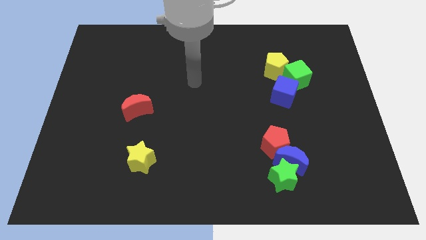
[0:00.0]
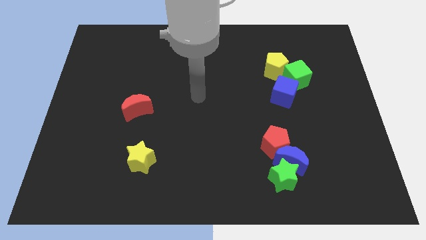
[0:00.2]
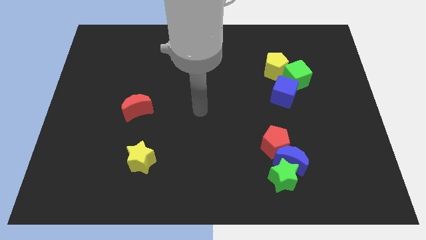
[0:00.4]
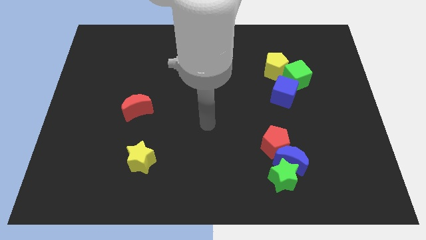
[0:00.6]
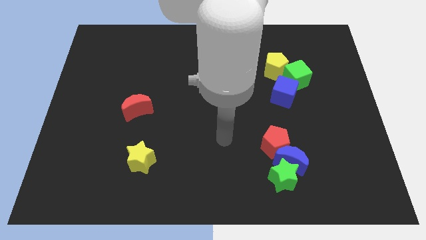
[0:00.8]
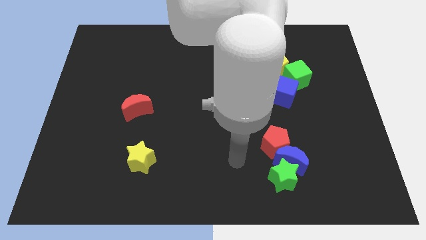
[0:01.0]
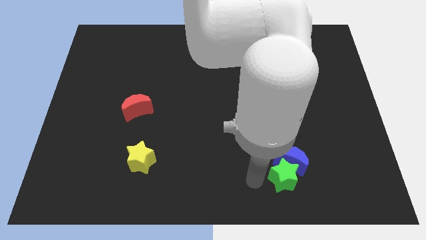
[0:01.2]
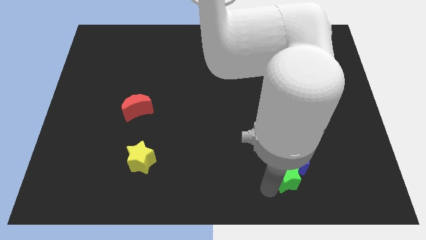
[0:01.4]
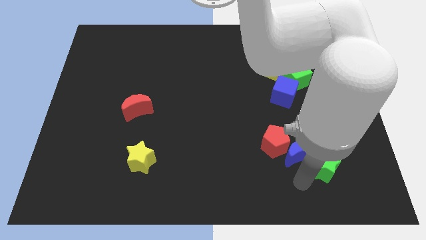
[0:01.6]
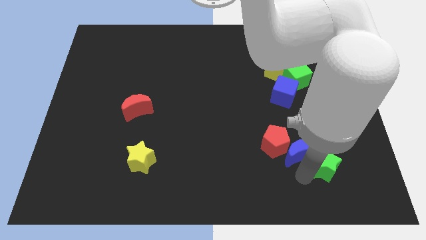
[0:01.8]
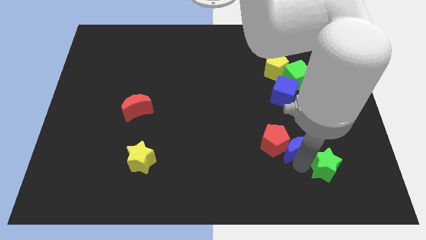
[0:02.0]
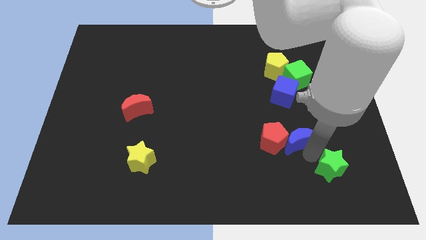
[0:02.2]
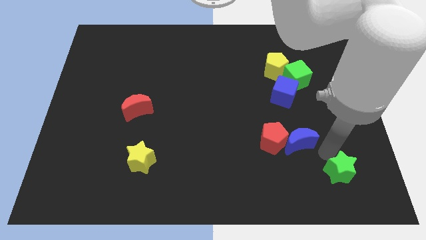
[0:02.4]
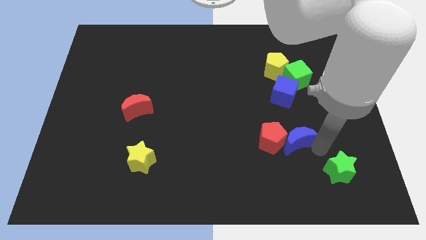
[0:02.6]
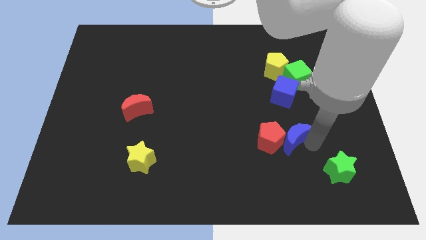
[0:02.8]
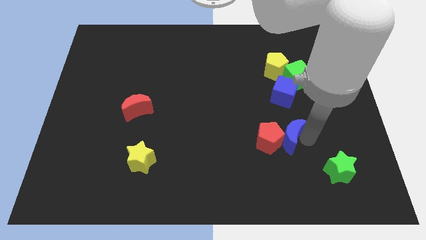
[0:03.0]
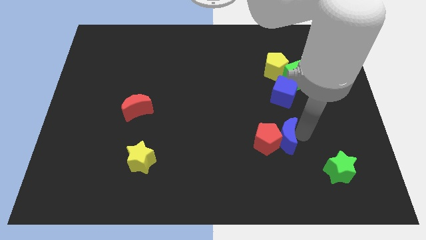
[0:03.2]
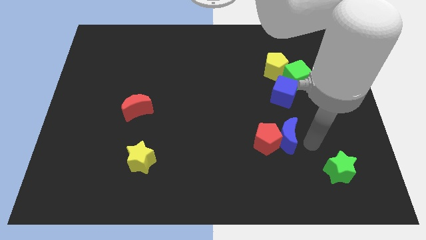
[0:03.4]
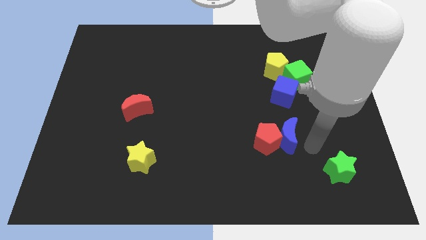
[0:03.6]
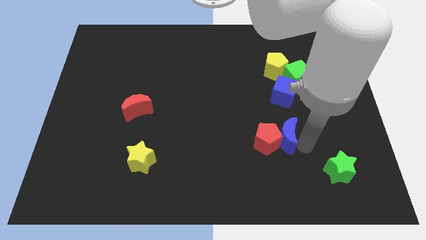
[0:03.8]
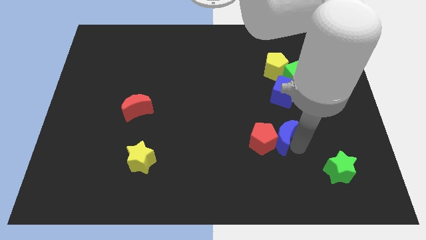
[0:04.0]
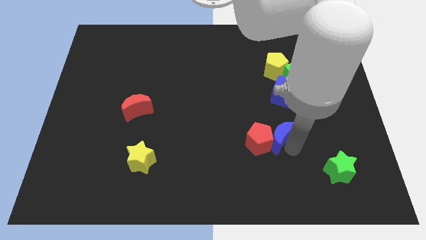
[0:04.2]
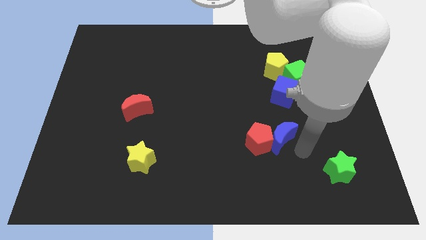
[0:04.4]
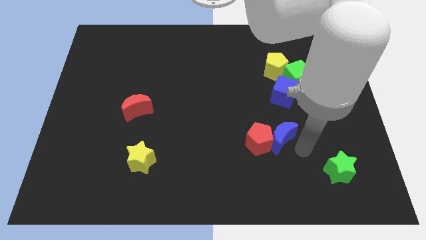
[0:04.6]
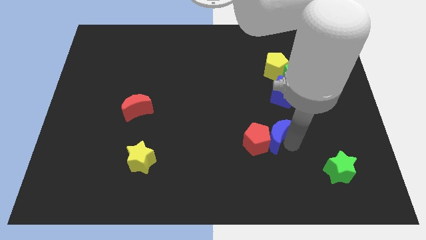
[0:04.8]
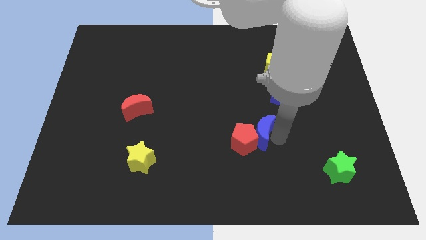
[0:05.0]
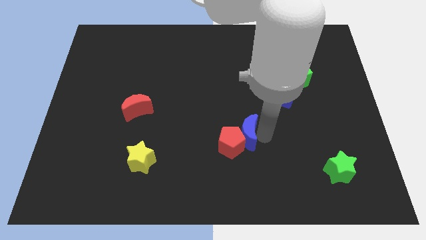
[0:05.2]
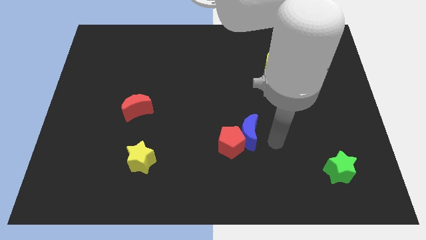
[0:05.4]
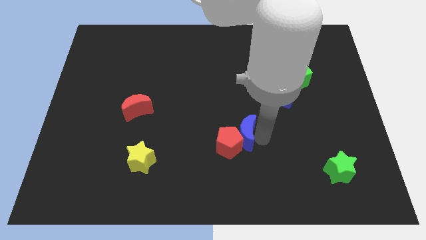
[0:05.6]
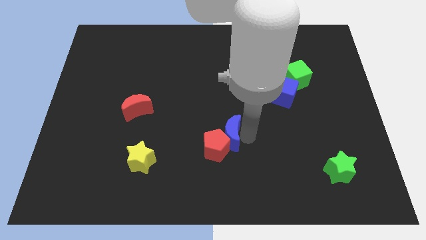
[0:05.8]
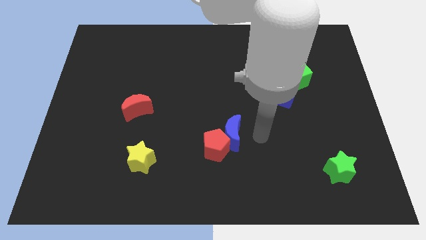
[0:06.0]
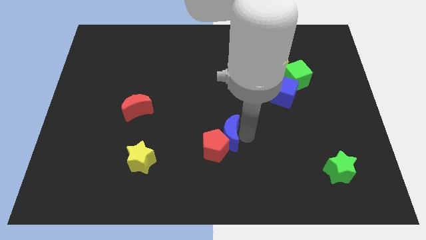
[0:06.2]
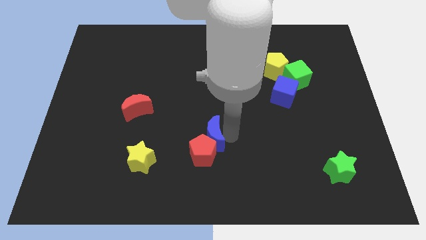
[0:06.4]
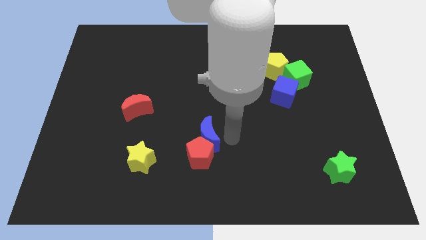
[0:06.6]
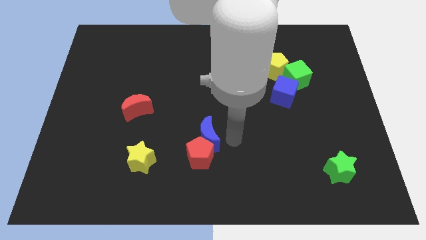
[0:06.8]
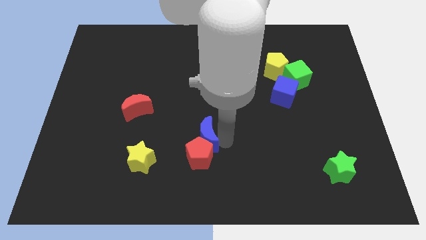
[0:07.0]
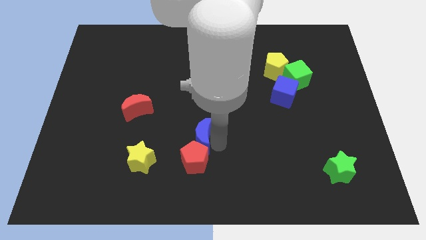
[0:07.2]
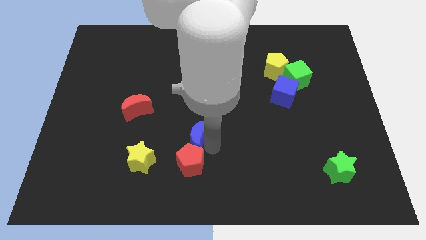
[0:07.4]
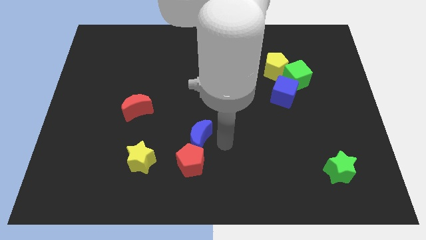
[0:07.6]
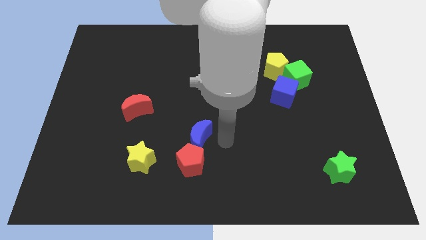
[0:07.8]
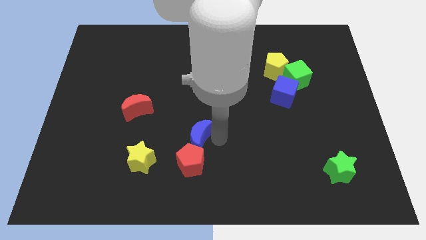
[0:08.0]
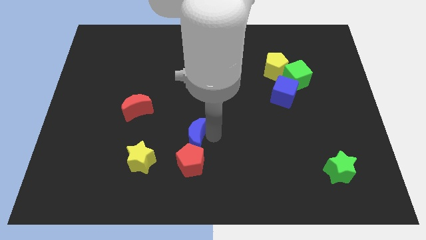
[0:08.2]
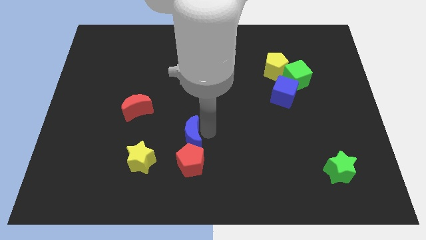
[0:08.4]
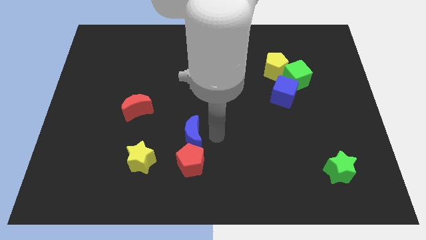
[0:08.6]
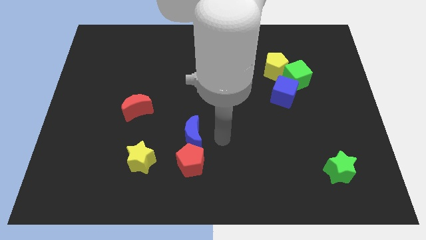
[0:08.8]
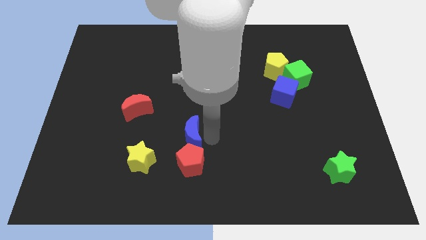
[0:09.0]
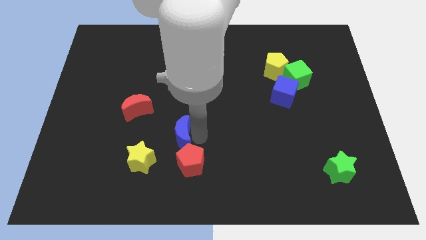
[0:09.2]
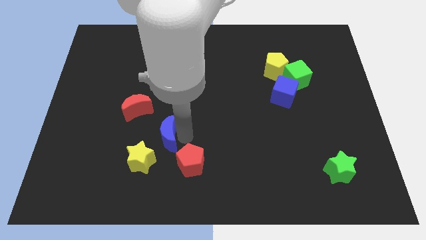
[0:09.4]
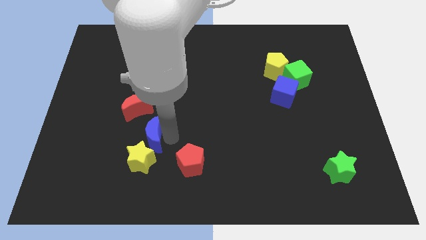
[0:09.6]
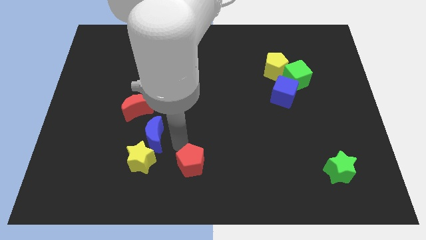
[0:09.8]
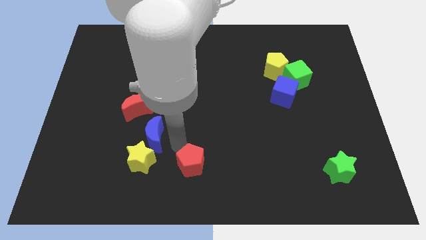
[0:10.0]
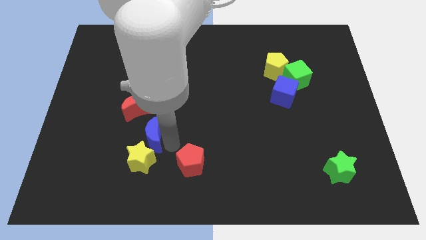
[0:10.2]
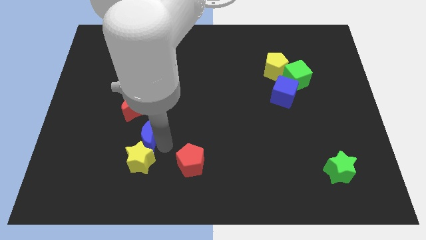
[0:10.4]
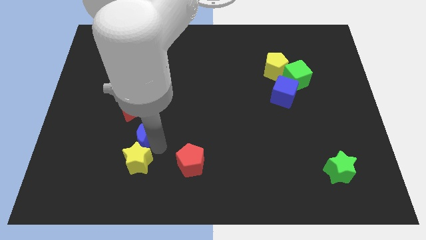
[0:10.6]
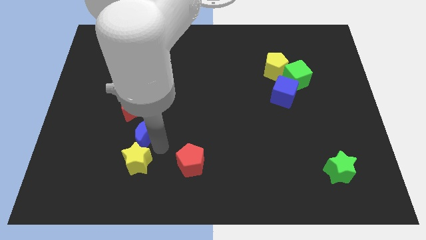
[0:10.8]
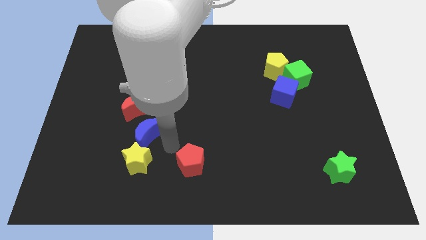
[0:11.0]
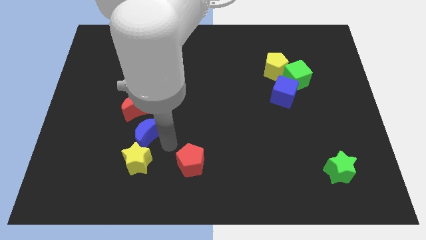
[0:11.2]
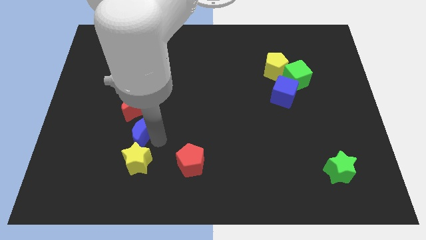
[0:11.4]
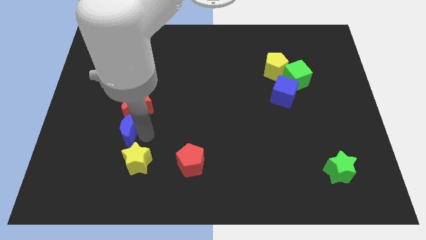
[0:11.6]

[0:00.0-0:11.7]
push the blue moon diagonally down and to the left of the red moon

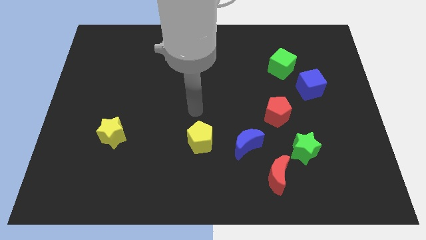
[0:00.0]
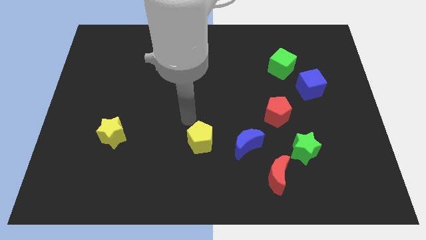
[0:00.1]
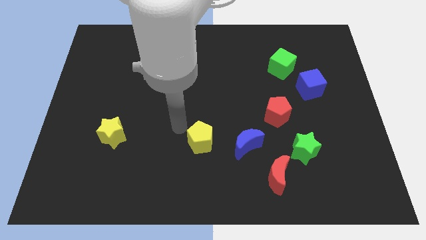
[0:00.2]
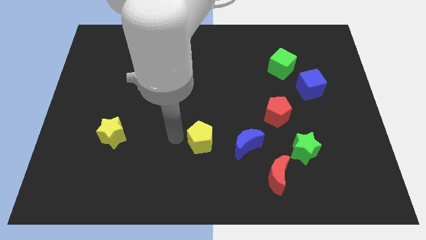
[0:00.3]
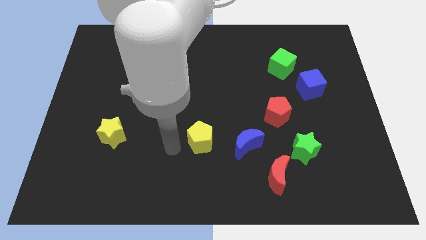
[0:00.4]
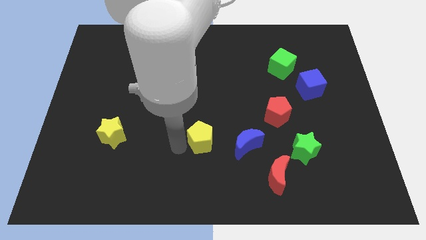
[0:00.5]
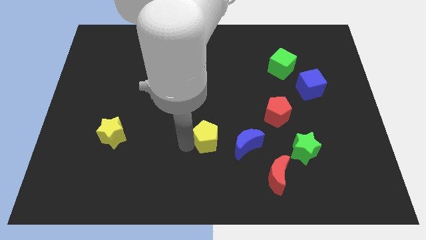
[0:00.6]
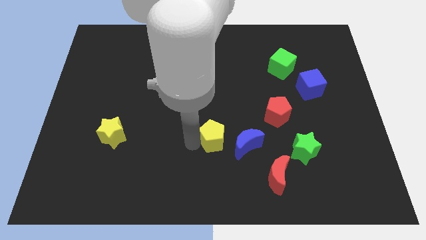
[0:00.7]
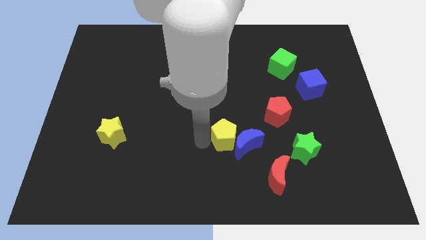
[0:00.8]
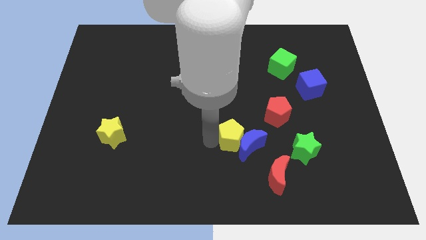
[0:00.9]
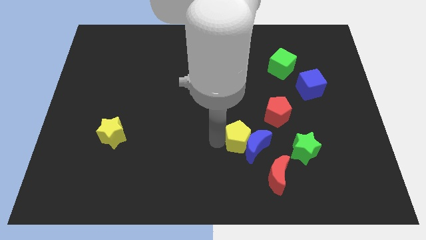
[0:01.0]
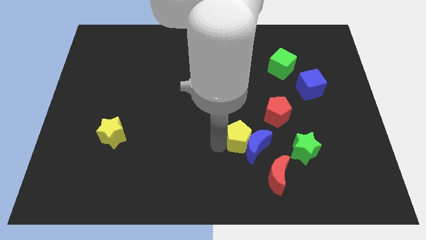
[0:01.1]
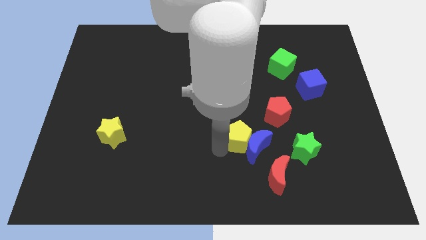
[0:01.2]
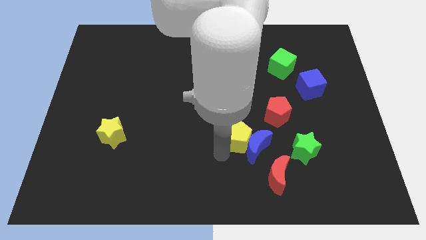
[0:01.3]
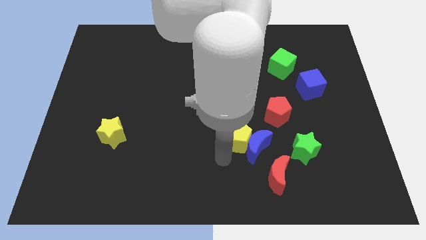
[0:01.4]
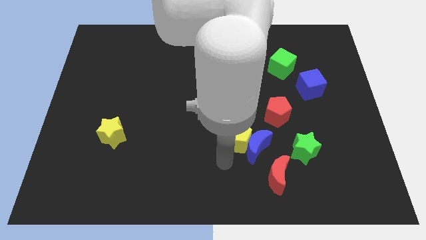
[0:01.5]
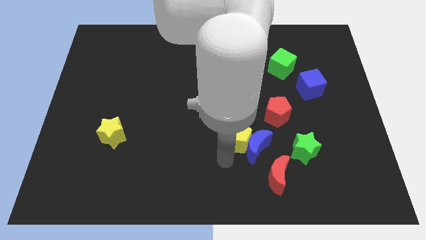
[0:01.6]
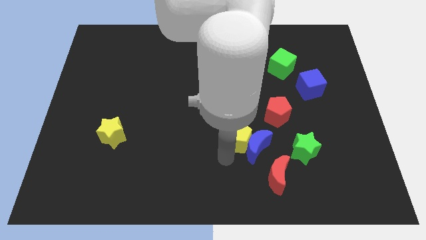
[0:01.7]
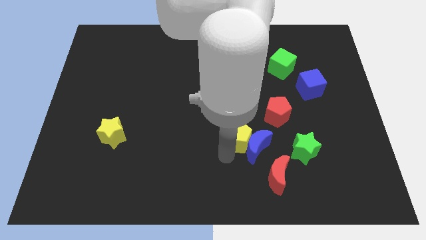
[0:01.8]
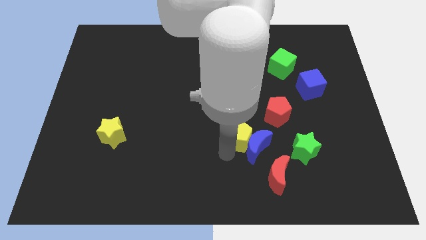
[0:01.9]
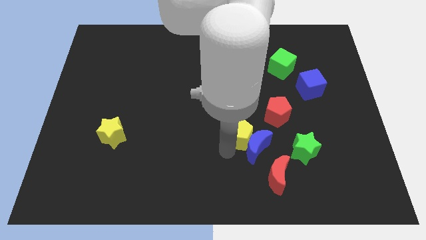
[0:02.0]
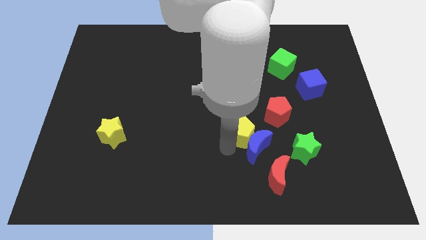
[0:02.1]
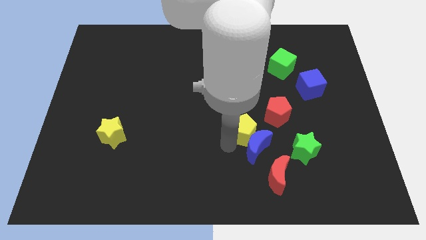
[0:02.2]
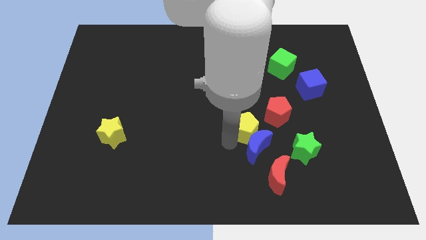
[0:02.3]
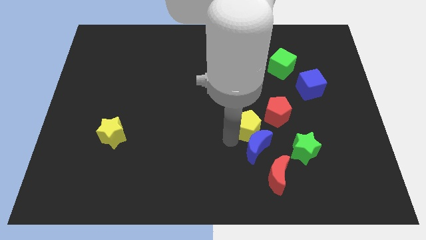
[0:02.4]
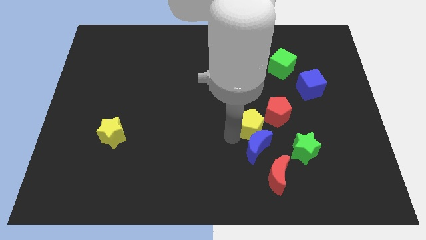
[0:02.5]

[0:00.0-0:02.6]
move the yellow pentagon above the red moon
